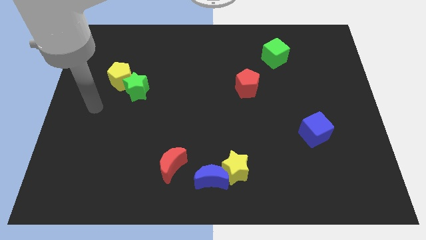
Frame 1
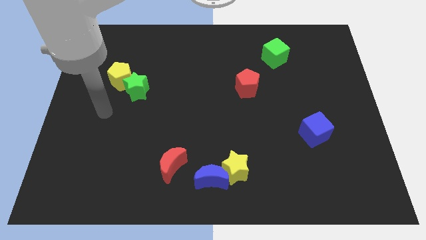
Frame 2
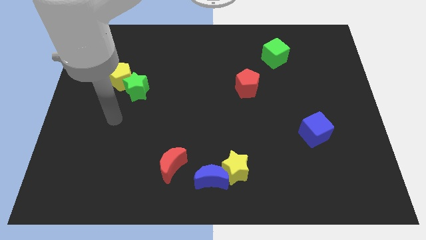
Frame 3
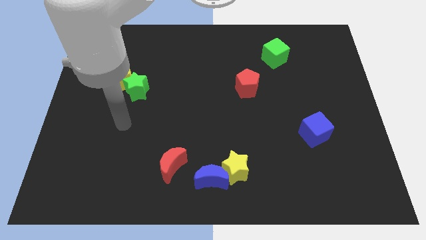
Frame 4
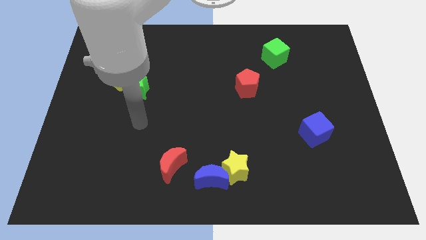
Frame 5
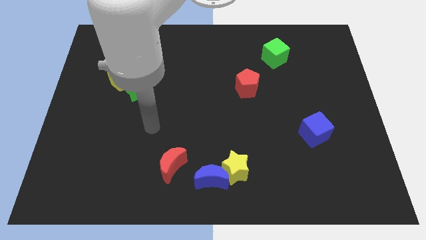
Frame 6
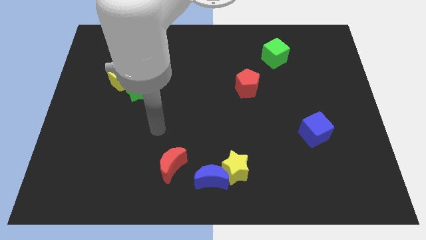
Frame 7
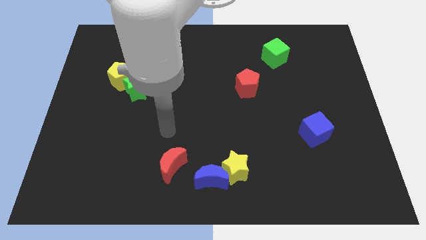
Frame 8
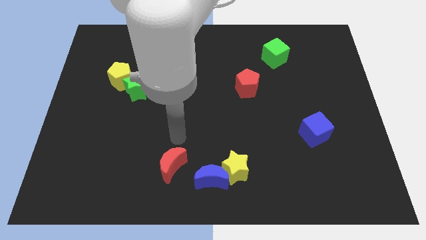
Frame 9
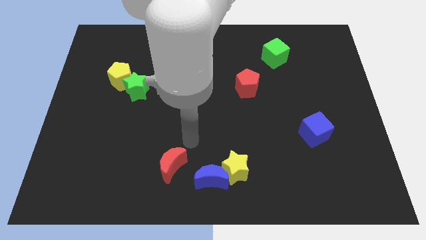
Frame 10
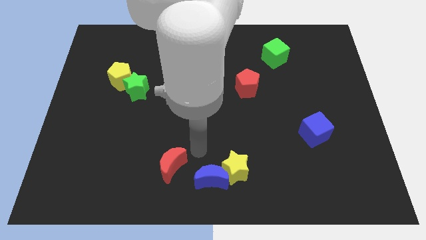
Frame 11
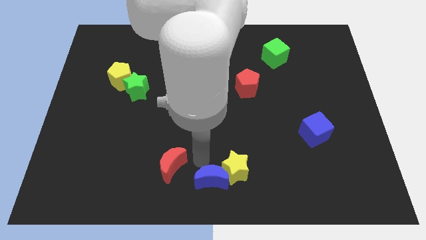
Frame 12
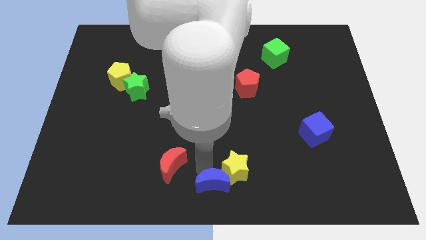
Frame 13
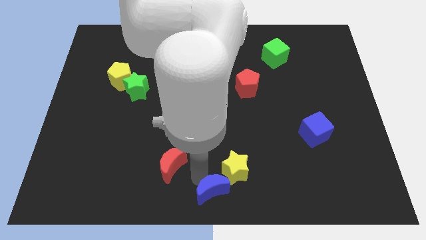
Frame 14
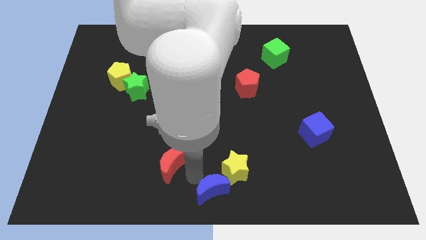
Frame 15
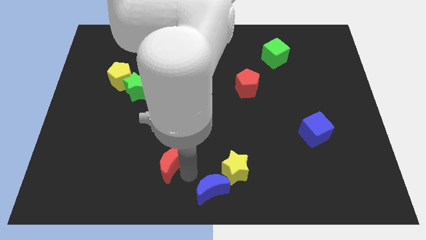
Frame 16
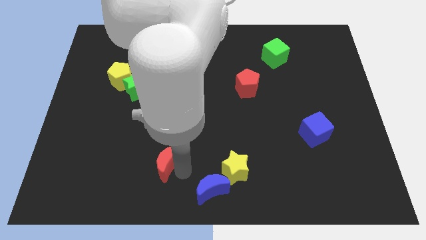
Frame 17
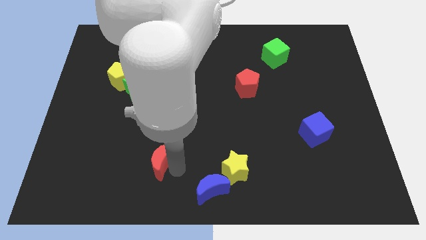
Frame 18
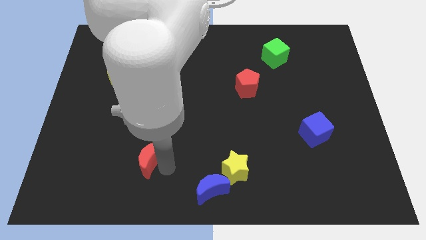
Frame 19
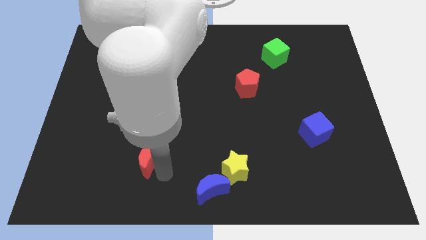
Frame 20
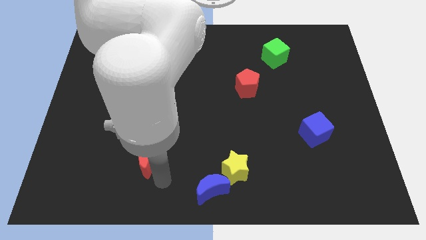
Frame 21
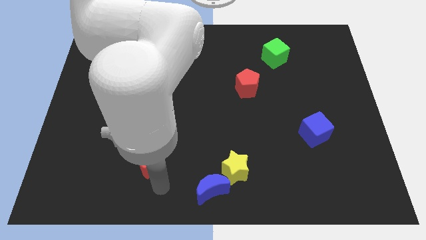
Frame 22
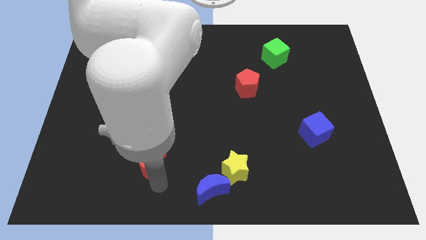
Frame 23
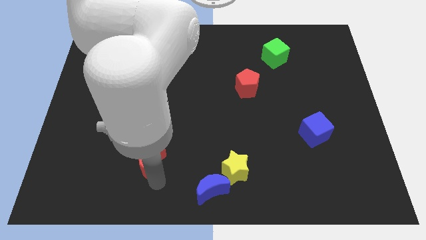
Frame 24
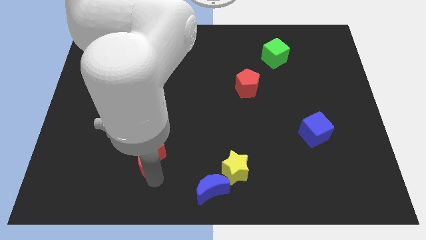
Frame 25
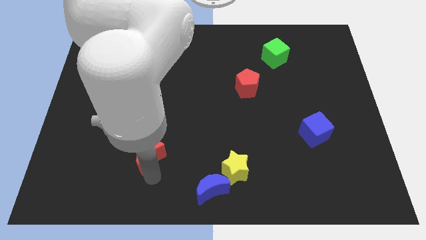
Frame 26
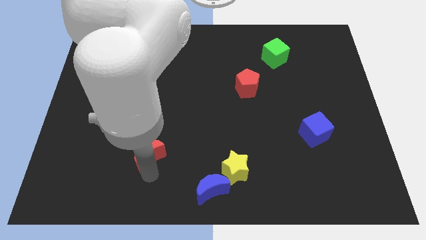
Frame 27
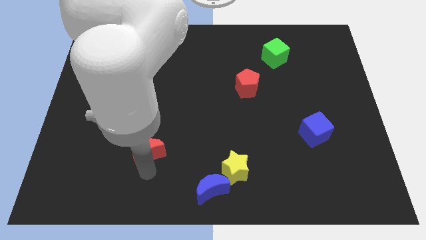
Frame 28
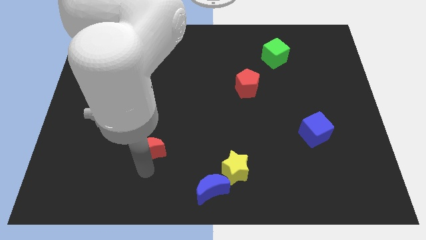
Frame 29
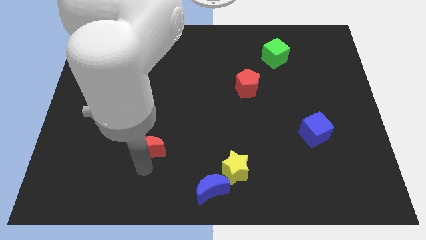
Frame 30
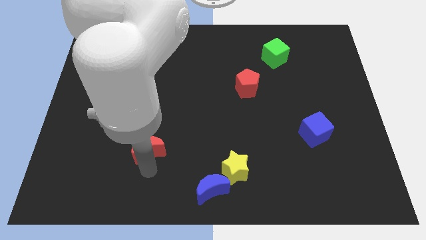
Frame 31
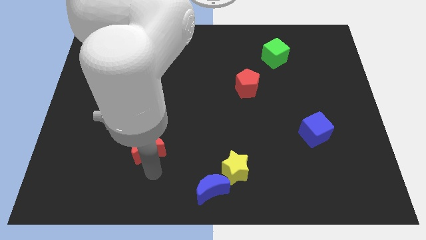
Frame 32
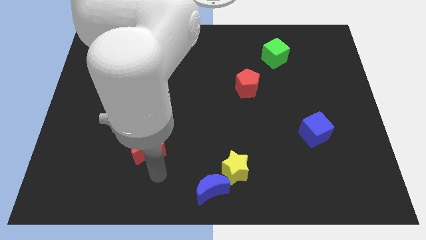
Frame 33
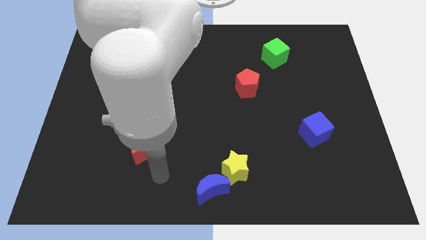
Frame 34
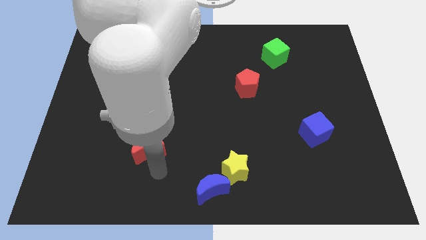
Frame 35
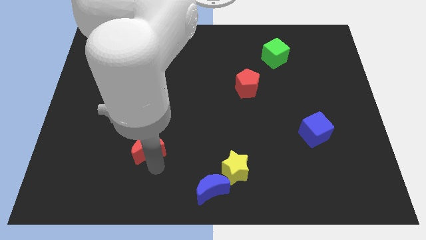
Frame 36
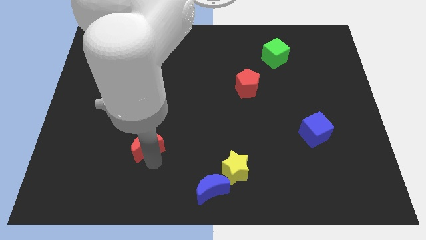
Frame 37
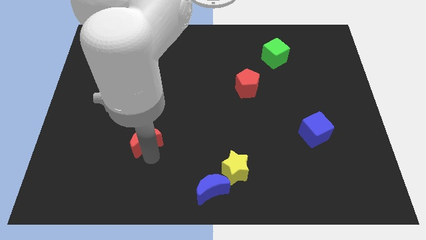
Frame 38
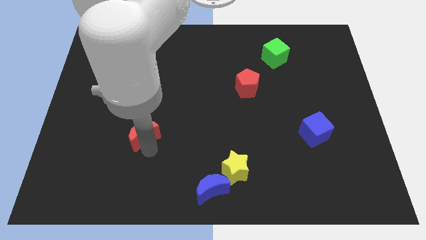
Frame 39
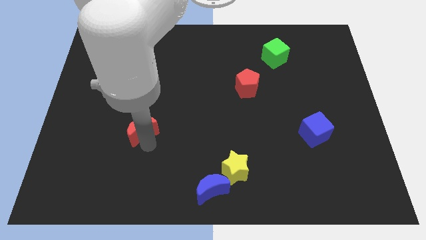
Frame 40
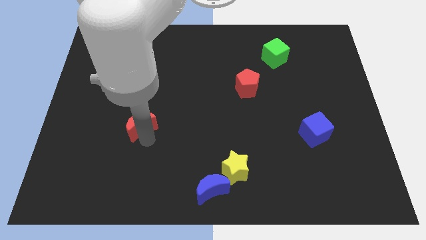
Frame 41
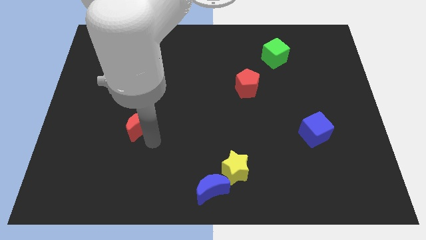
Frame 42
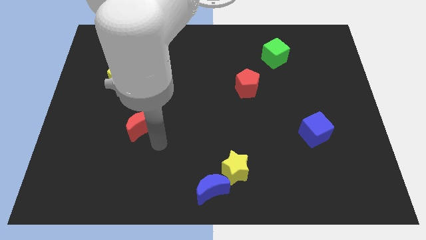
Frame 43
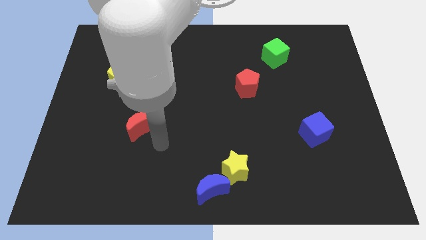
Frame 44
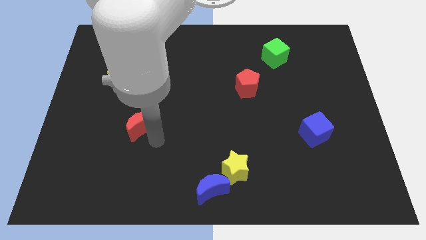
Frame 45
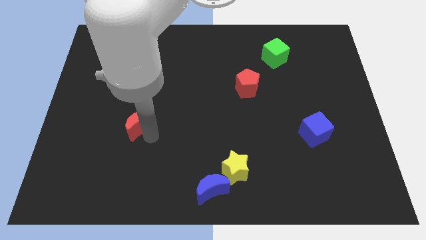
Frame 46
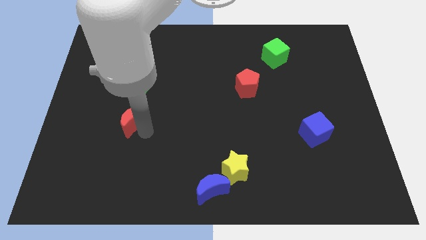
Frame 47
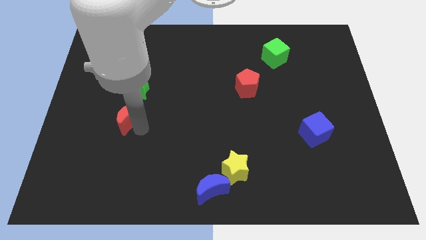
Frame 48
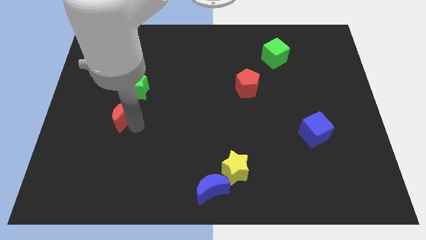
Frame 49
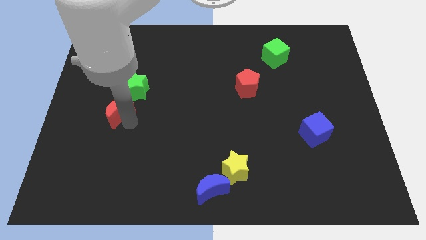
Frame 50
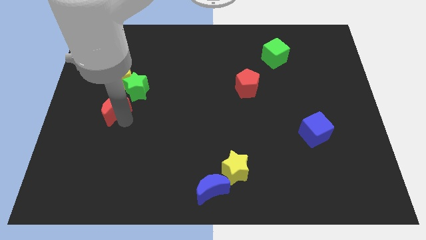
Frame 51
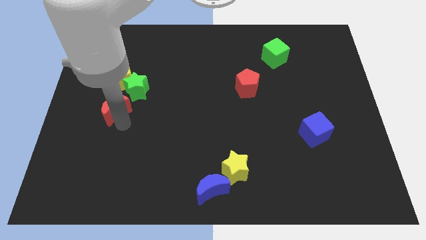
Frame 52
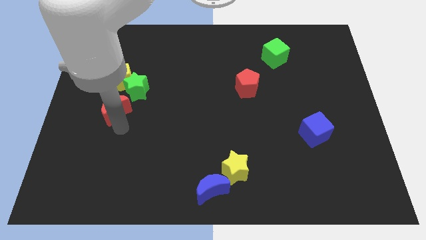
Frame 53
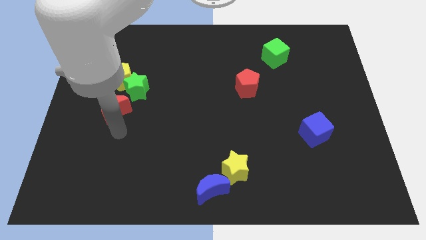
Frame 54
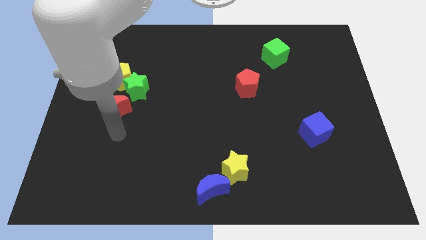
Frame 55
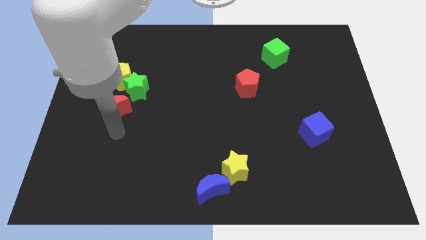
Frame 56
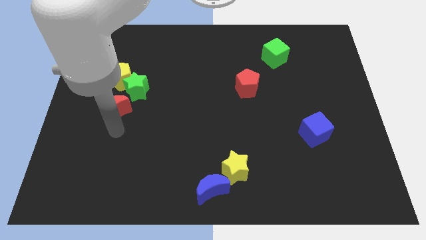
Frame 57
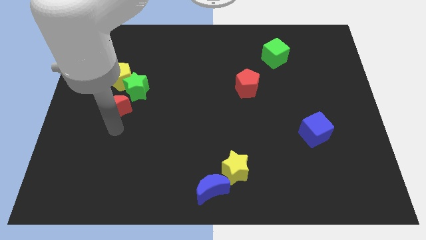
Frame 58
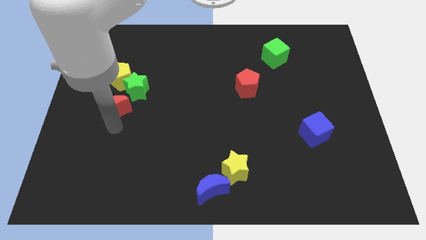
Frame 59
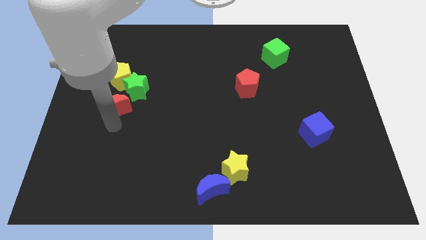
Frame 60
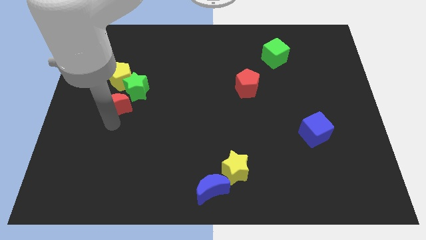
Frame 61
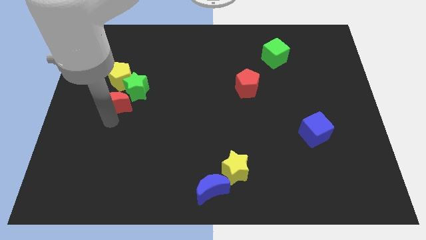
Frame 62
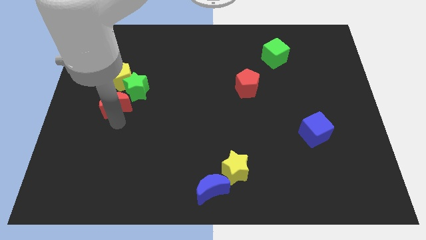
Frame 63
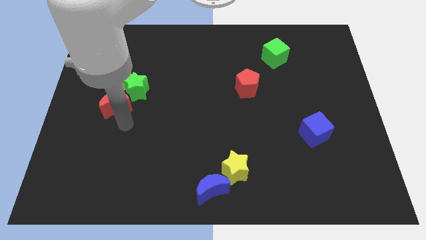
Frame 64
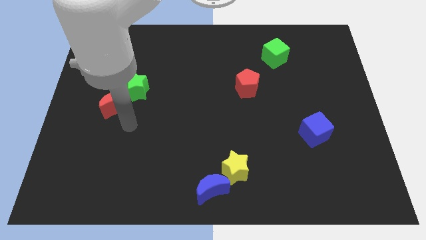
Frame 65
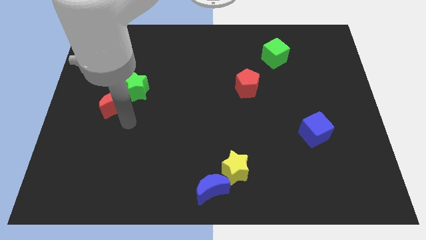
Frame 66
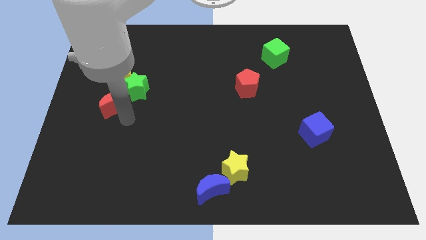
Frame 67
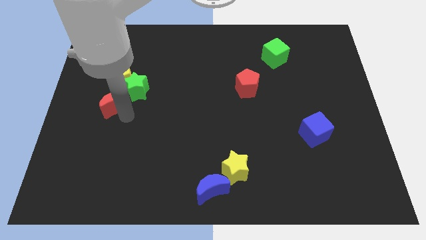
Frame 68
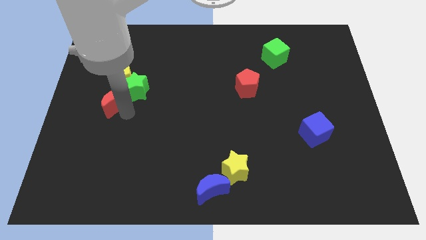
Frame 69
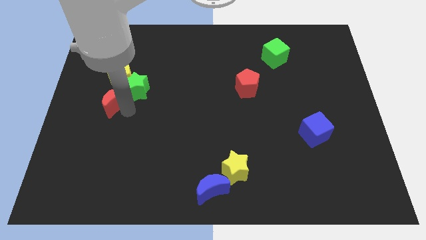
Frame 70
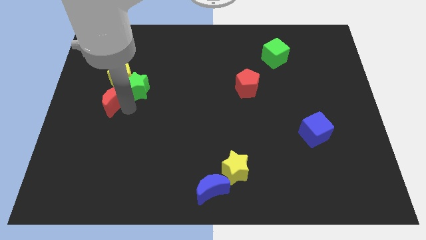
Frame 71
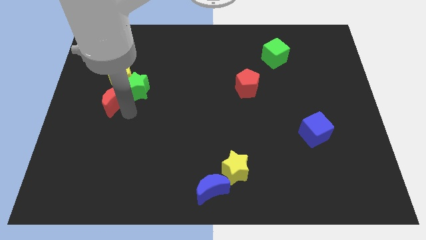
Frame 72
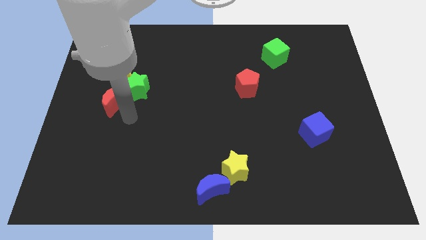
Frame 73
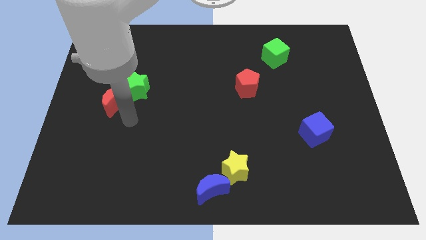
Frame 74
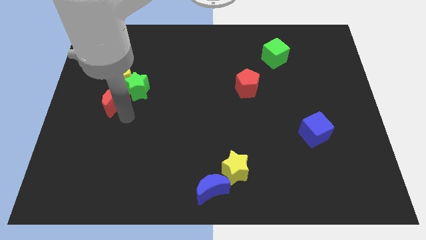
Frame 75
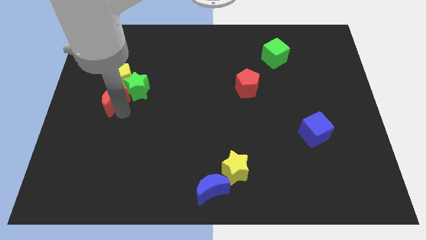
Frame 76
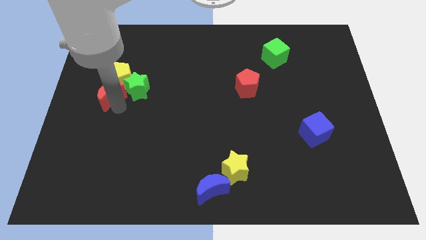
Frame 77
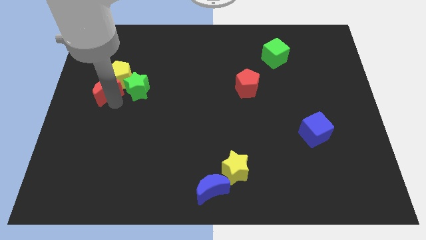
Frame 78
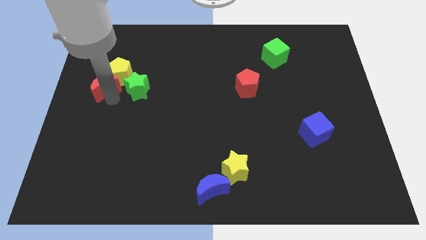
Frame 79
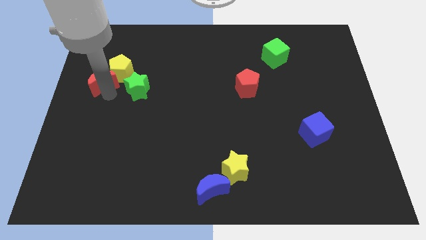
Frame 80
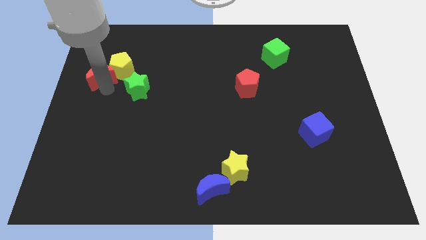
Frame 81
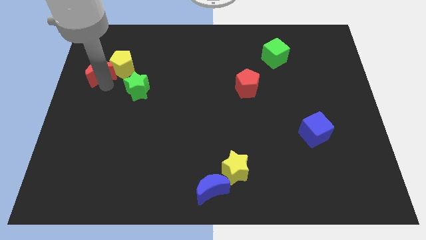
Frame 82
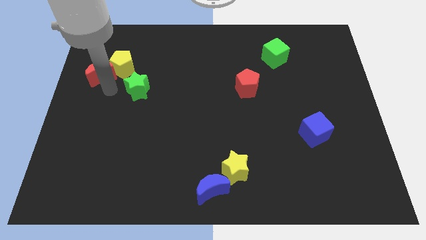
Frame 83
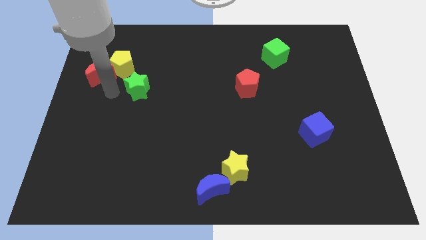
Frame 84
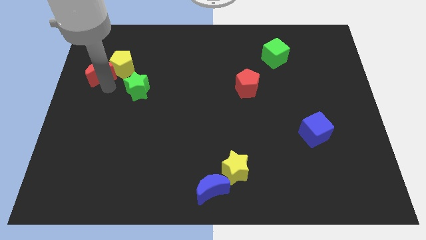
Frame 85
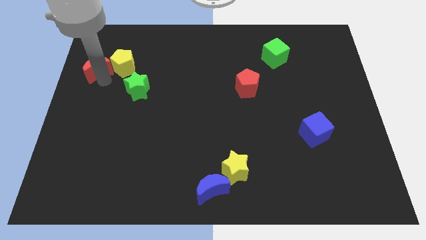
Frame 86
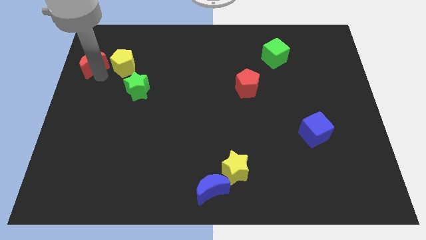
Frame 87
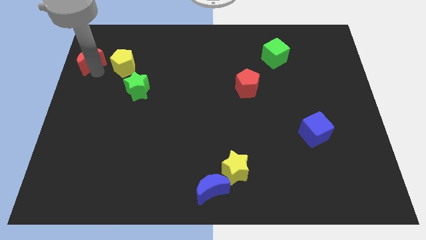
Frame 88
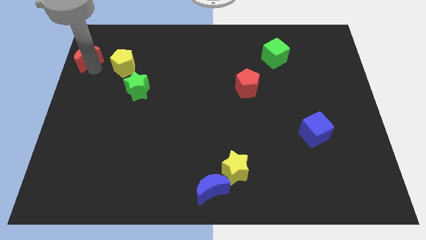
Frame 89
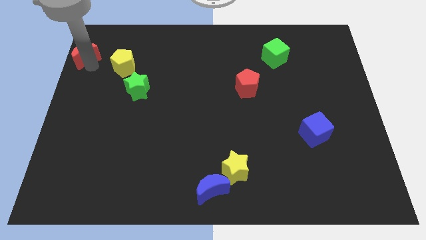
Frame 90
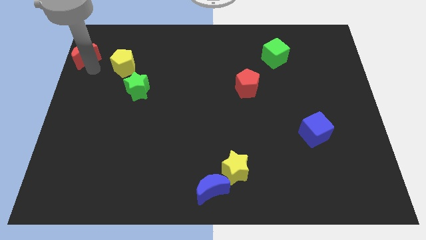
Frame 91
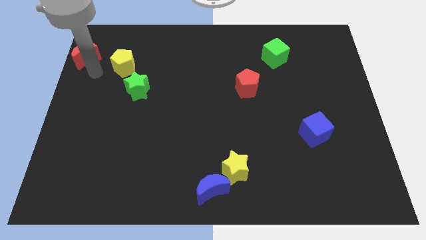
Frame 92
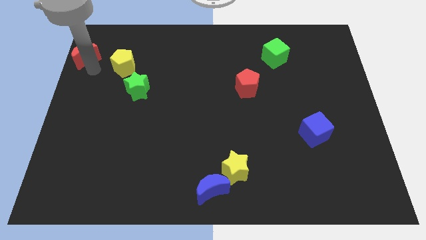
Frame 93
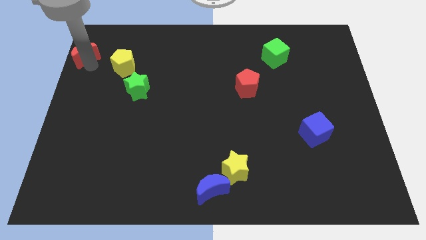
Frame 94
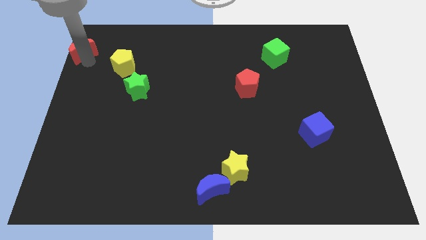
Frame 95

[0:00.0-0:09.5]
slide the red moon to the upper left corner
